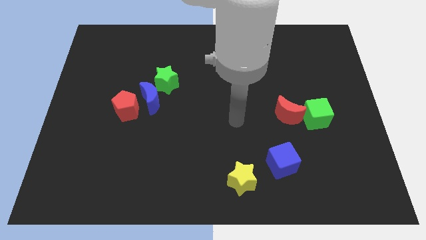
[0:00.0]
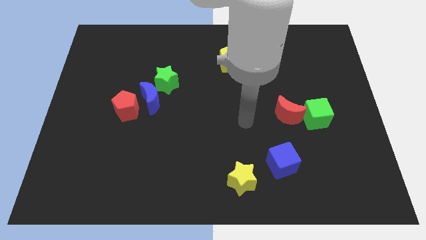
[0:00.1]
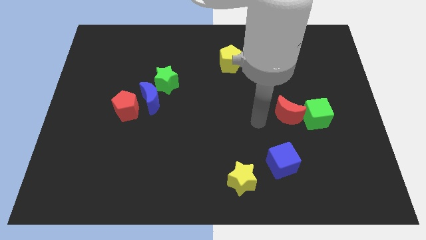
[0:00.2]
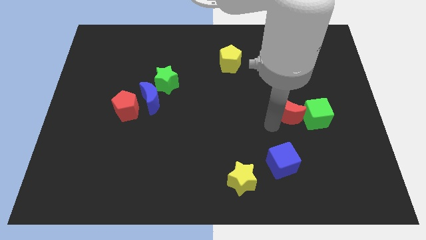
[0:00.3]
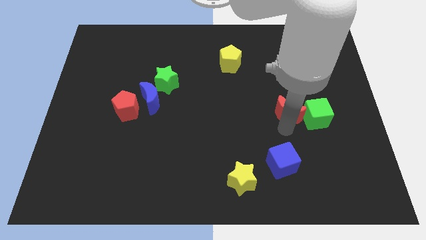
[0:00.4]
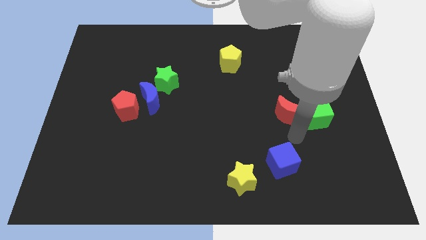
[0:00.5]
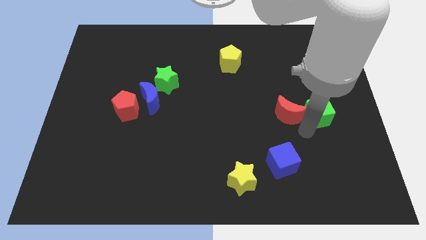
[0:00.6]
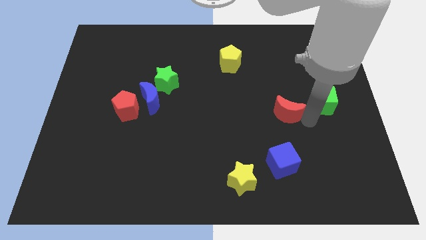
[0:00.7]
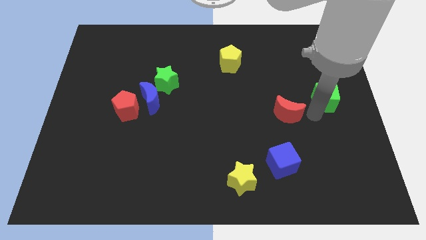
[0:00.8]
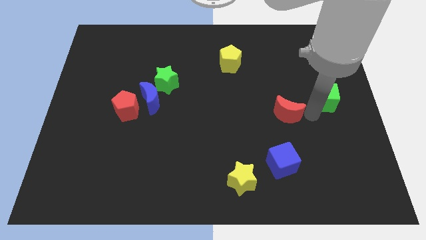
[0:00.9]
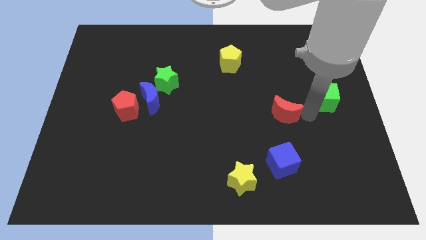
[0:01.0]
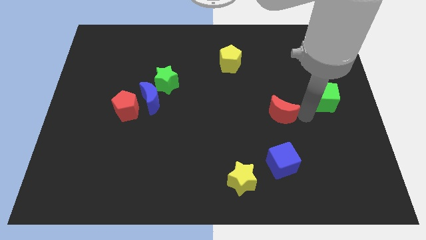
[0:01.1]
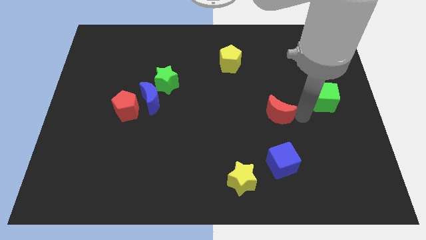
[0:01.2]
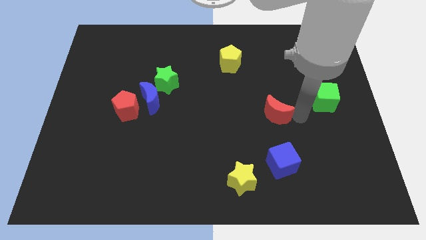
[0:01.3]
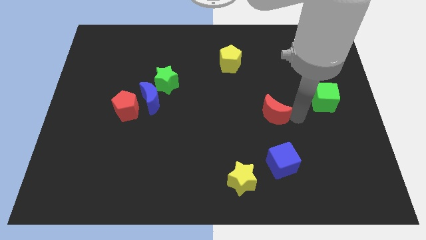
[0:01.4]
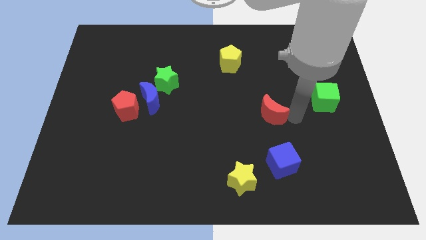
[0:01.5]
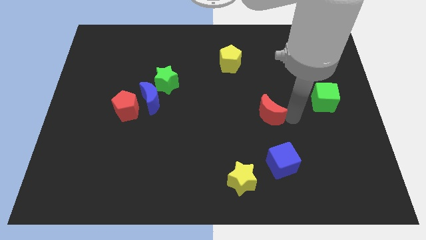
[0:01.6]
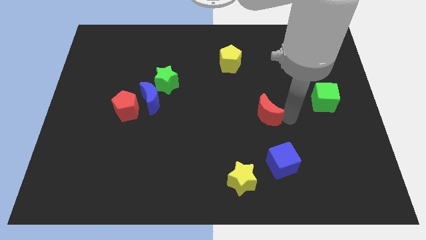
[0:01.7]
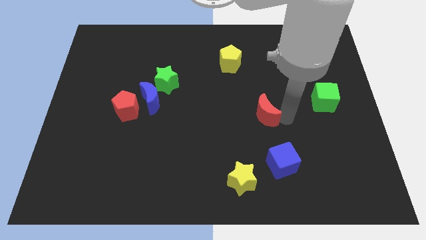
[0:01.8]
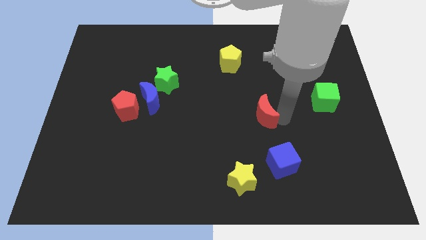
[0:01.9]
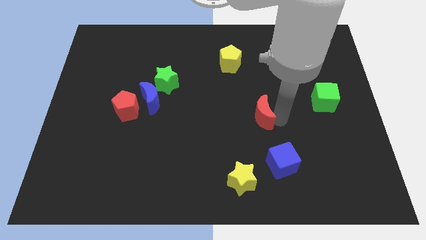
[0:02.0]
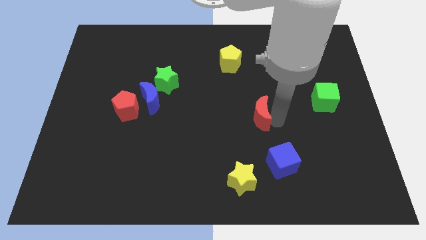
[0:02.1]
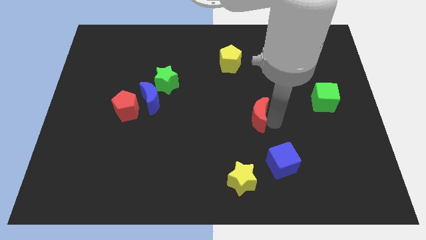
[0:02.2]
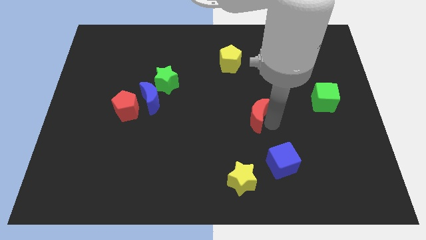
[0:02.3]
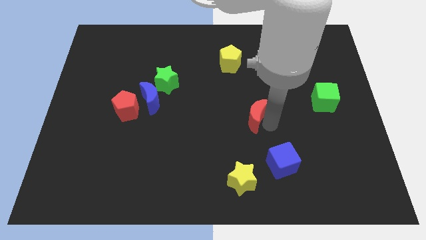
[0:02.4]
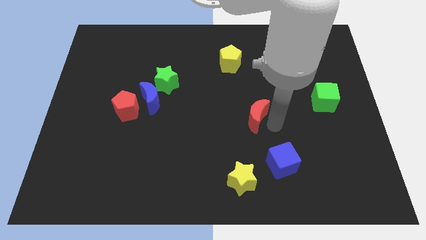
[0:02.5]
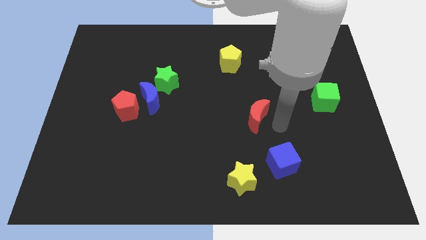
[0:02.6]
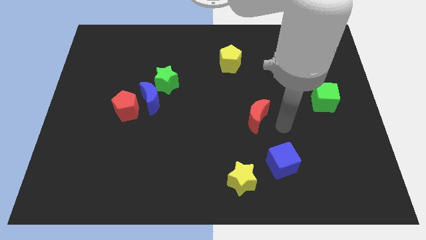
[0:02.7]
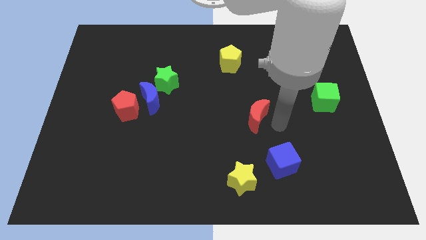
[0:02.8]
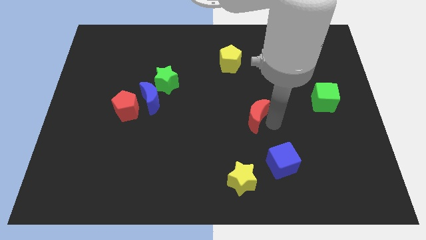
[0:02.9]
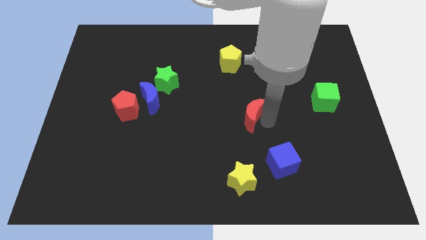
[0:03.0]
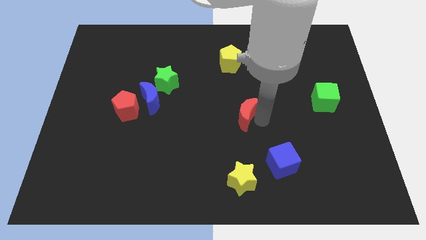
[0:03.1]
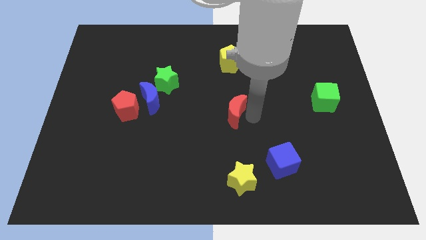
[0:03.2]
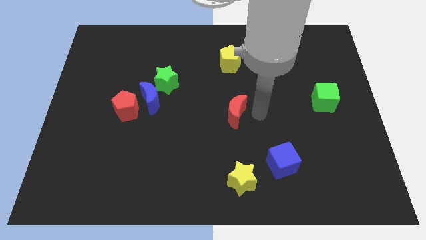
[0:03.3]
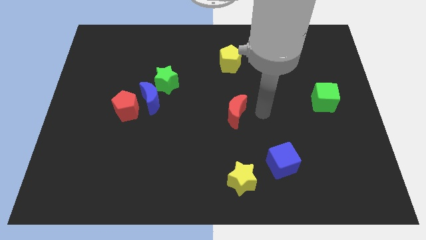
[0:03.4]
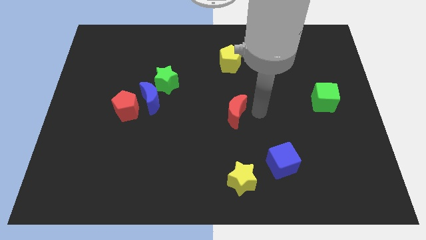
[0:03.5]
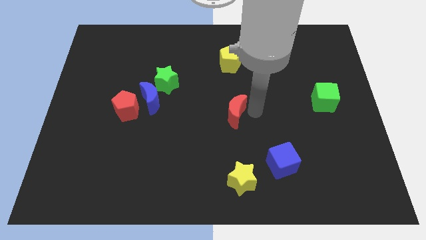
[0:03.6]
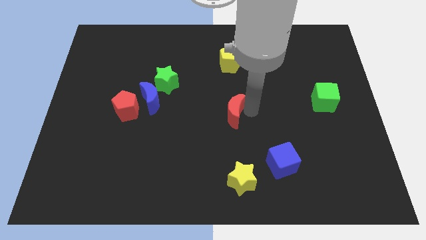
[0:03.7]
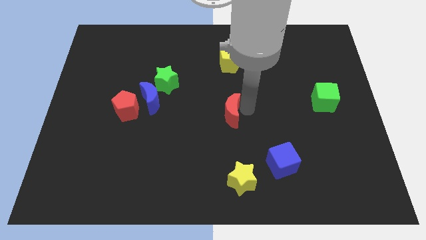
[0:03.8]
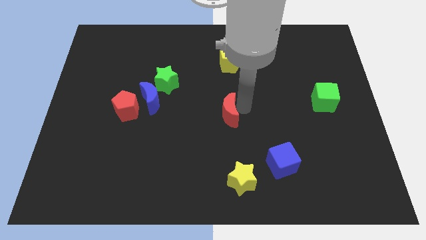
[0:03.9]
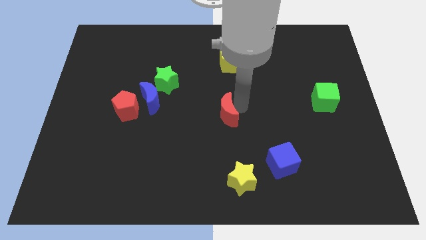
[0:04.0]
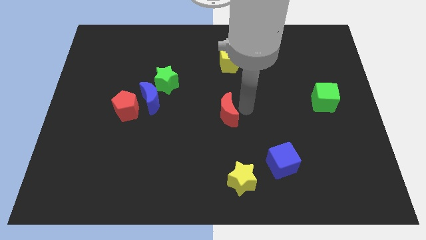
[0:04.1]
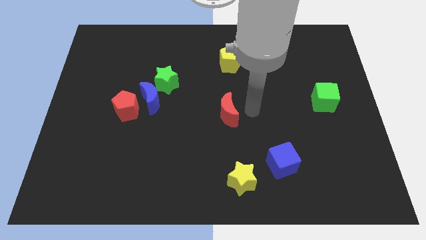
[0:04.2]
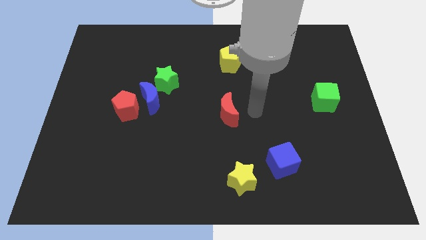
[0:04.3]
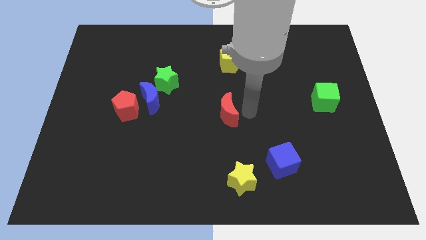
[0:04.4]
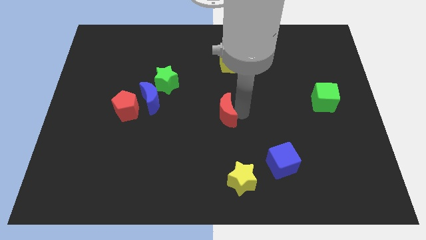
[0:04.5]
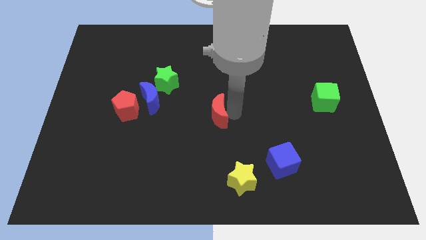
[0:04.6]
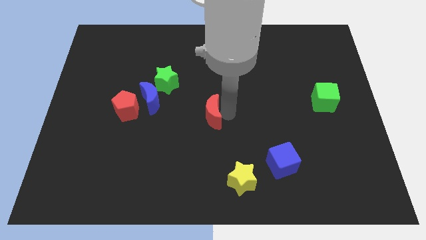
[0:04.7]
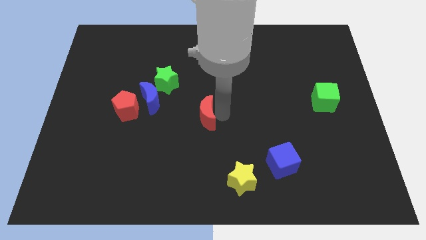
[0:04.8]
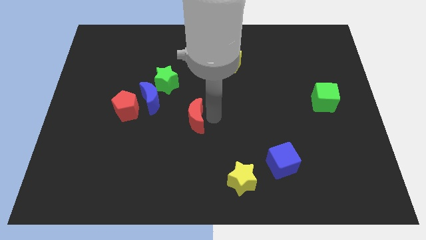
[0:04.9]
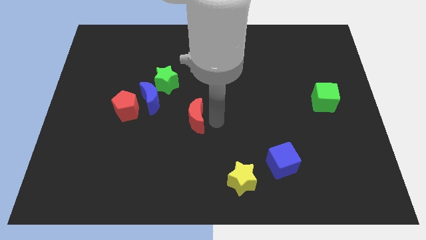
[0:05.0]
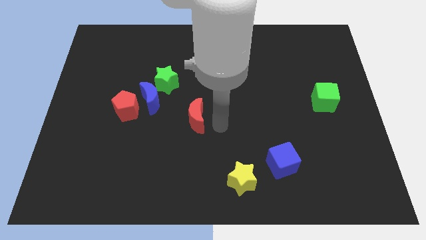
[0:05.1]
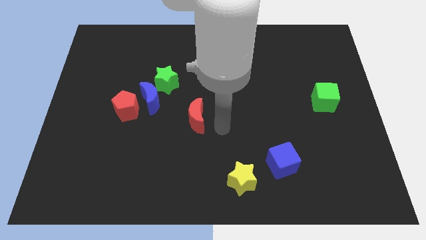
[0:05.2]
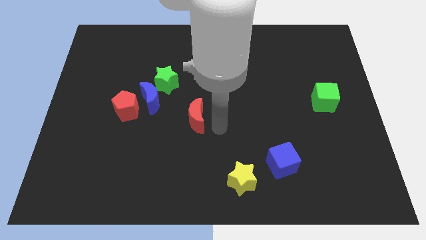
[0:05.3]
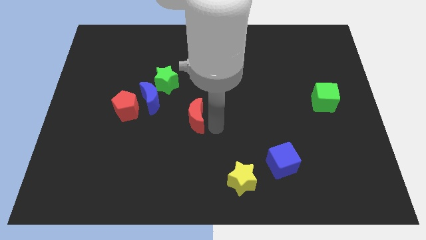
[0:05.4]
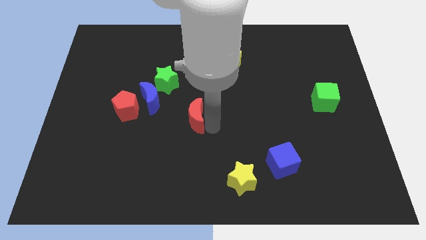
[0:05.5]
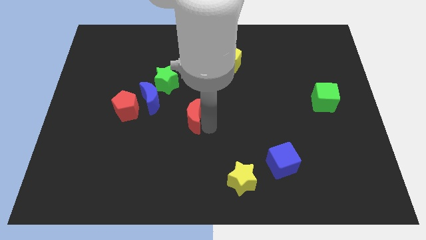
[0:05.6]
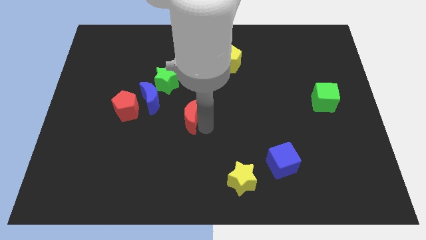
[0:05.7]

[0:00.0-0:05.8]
push the red moon to the right of the red pentagon

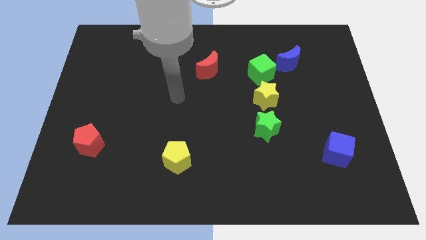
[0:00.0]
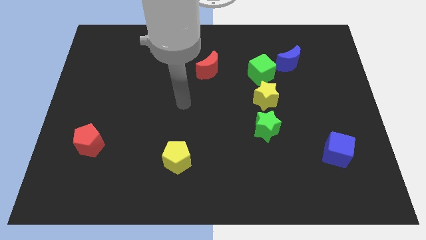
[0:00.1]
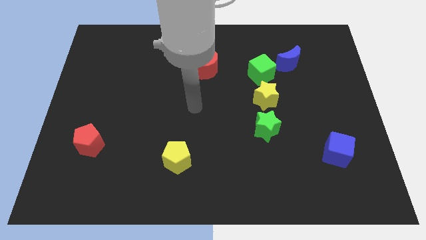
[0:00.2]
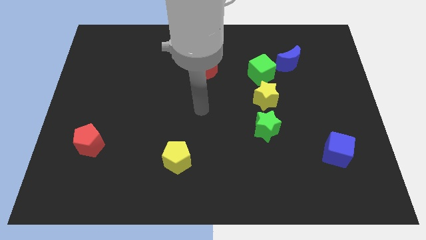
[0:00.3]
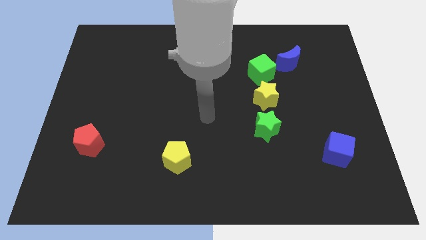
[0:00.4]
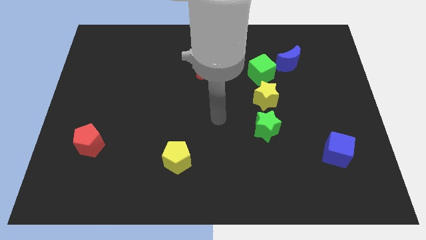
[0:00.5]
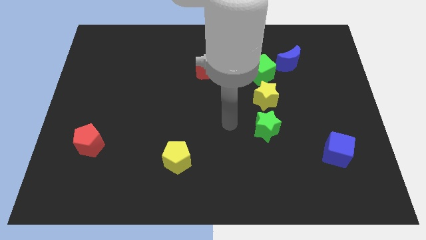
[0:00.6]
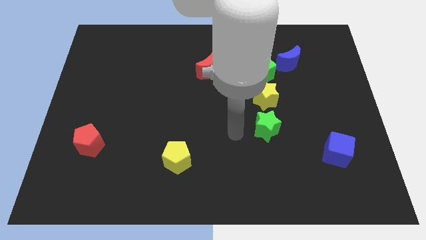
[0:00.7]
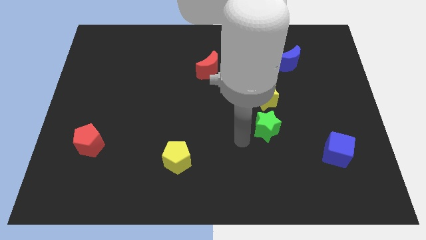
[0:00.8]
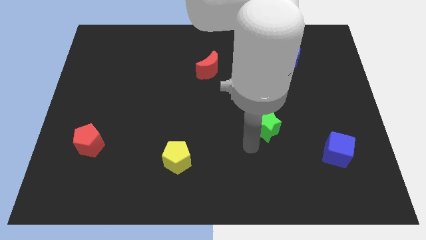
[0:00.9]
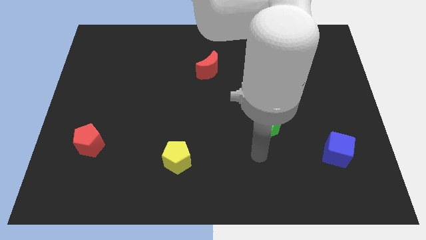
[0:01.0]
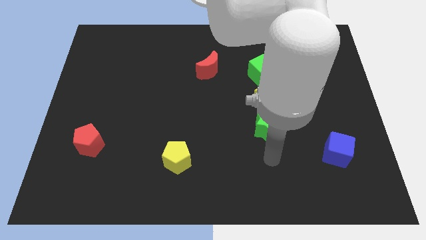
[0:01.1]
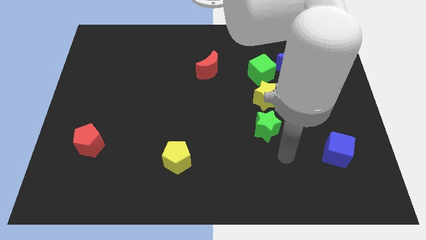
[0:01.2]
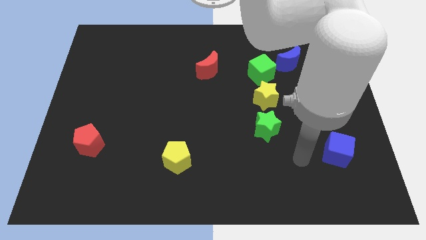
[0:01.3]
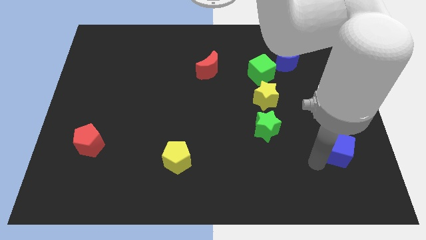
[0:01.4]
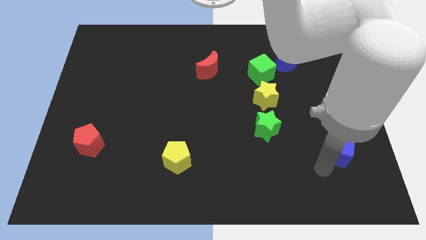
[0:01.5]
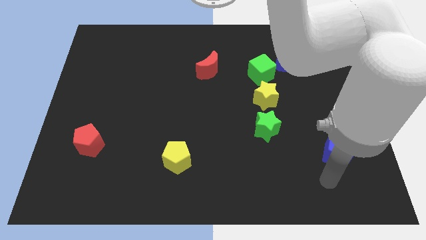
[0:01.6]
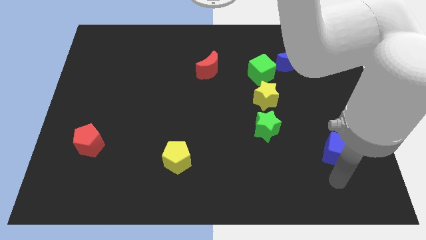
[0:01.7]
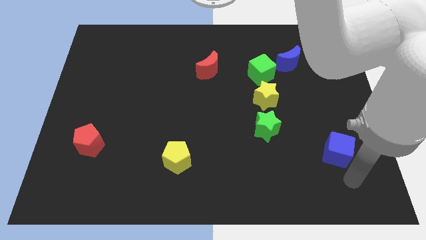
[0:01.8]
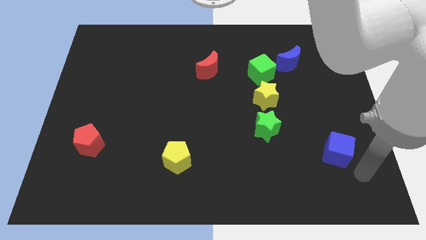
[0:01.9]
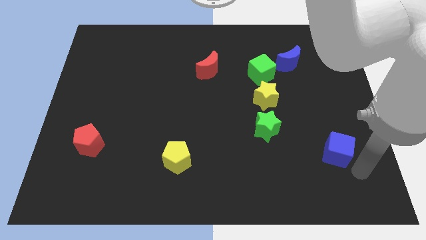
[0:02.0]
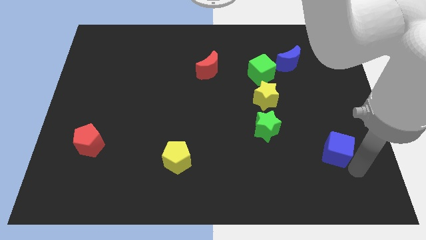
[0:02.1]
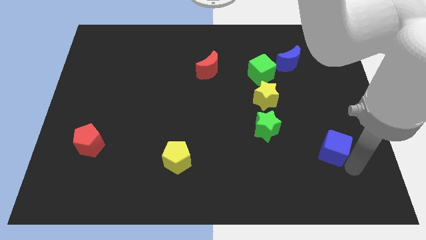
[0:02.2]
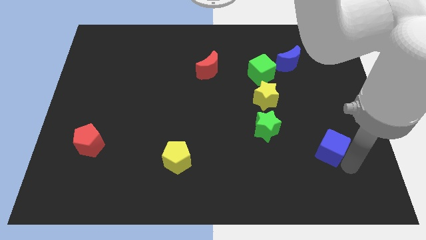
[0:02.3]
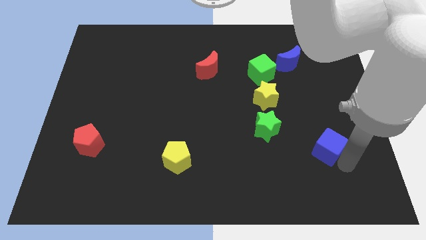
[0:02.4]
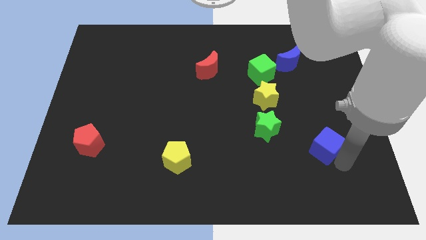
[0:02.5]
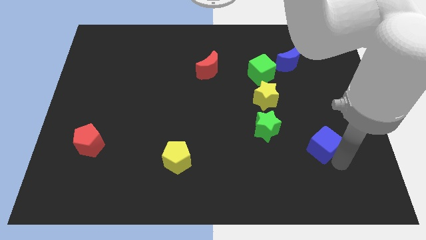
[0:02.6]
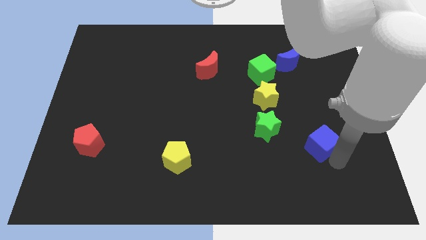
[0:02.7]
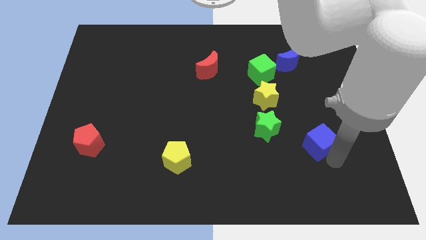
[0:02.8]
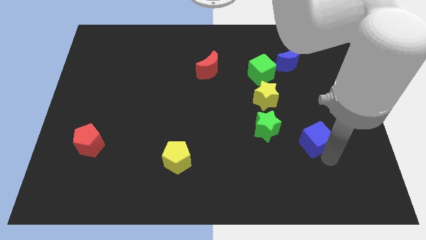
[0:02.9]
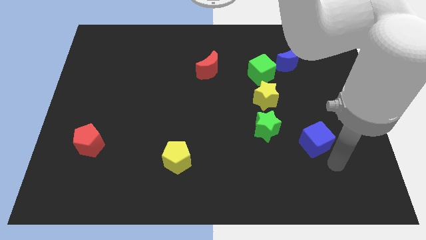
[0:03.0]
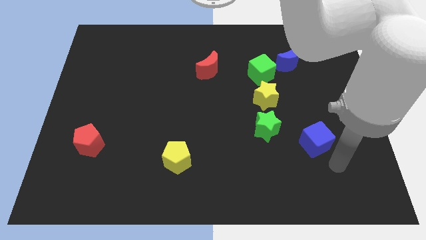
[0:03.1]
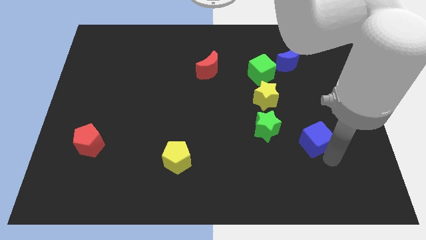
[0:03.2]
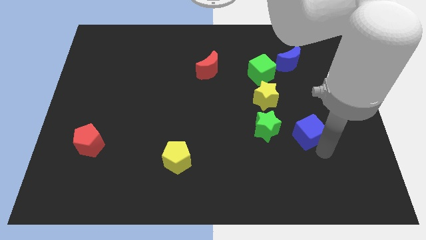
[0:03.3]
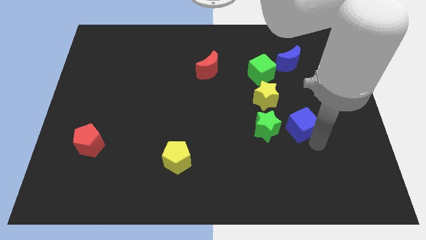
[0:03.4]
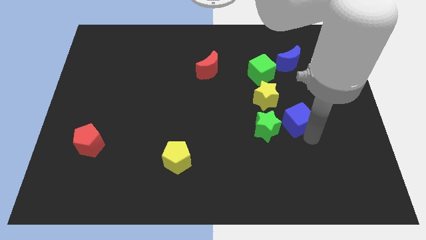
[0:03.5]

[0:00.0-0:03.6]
move the blue cube diagonally up and to the right of the green star
